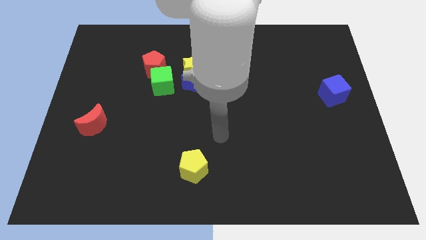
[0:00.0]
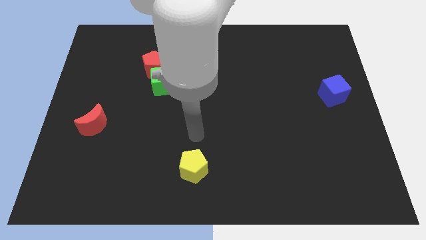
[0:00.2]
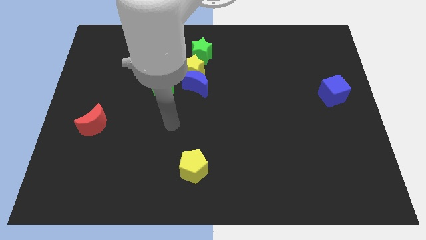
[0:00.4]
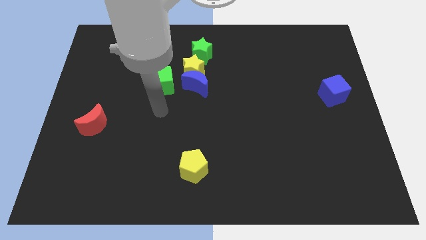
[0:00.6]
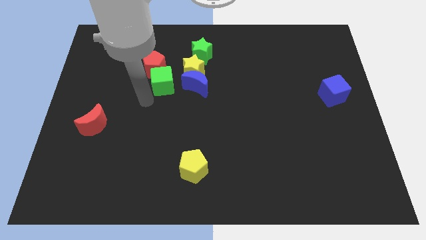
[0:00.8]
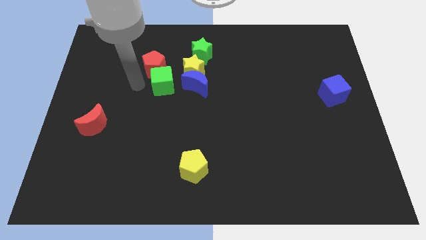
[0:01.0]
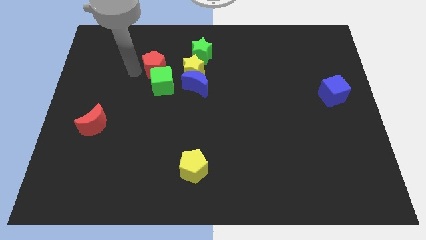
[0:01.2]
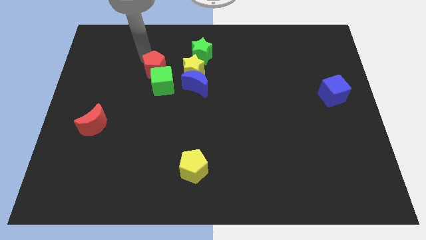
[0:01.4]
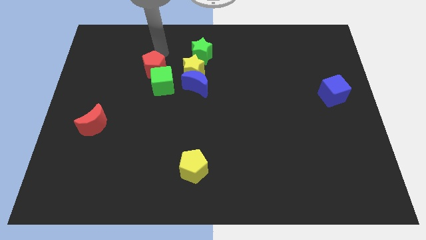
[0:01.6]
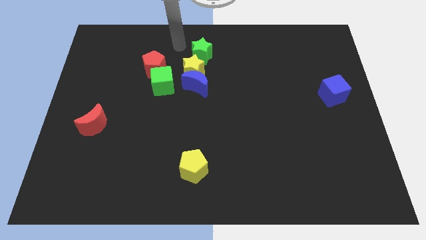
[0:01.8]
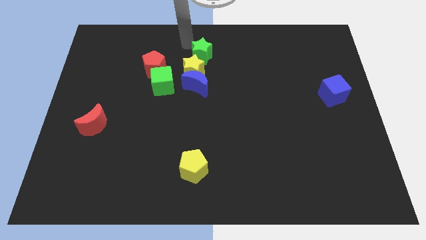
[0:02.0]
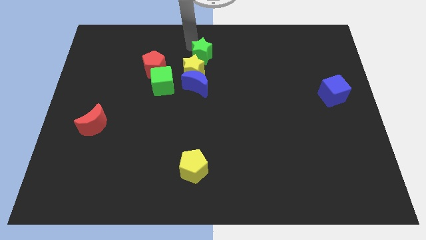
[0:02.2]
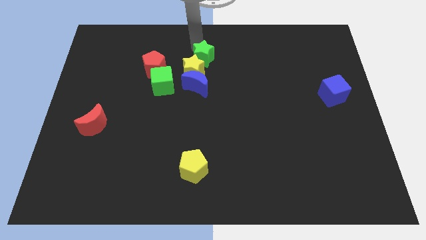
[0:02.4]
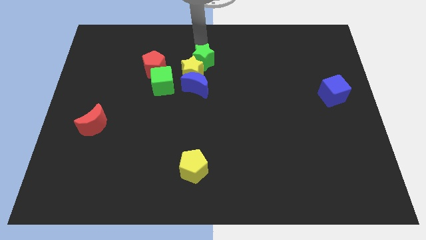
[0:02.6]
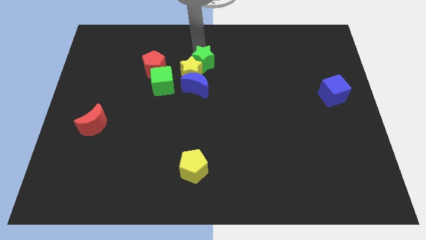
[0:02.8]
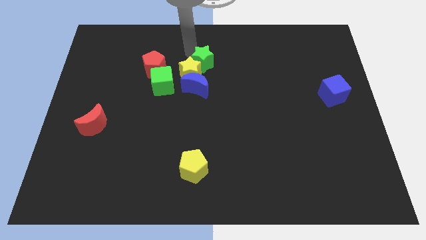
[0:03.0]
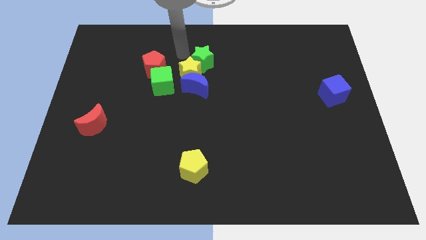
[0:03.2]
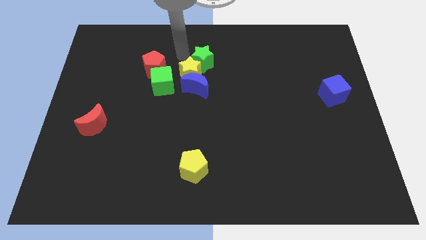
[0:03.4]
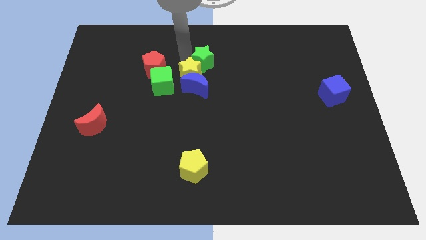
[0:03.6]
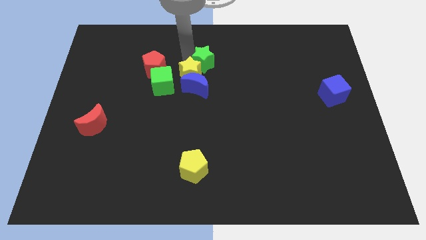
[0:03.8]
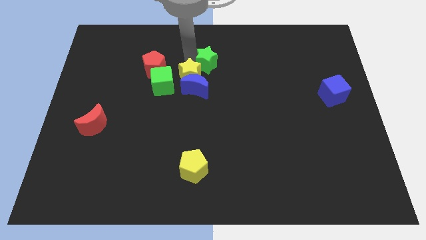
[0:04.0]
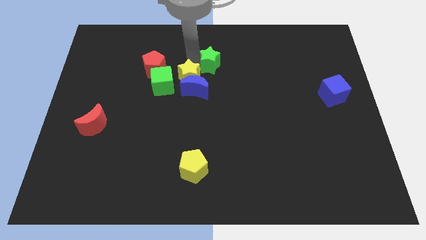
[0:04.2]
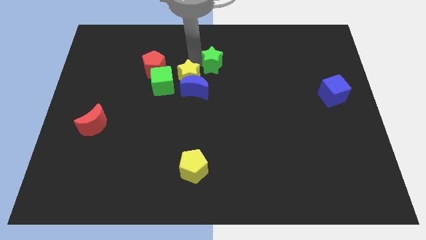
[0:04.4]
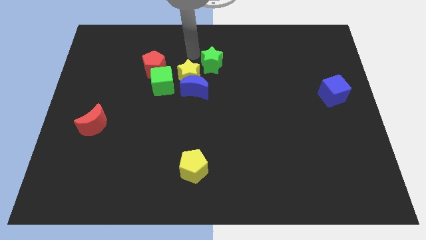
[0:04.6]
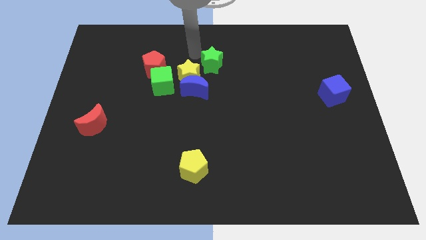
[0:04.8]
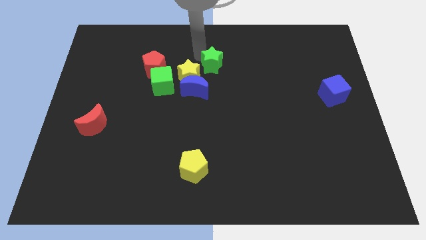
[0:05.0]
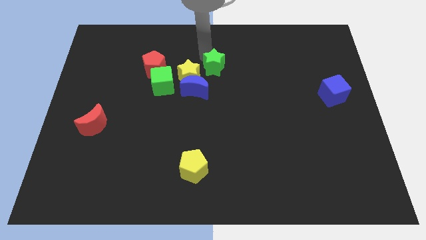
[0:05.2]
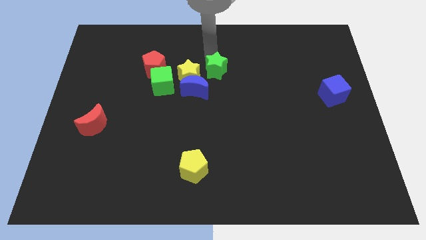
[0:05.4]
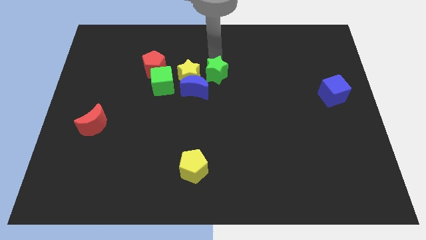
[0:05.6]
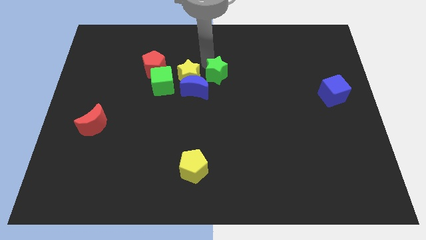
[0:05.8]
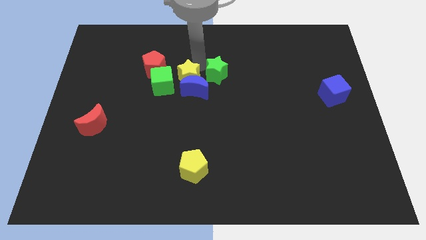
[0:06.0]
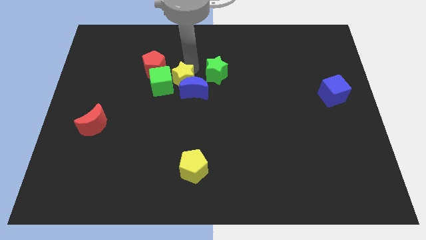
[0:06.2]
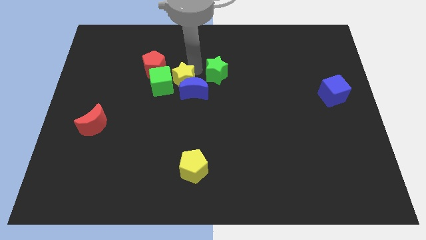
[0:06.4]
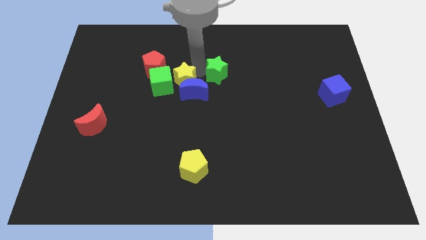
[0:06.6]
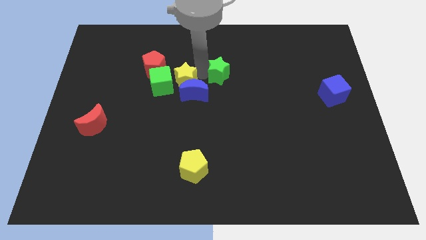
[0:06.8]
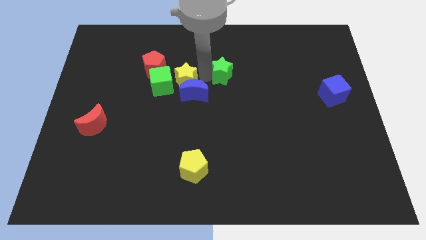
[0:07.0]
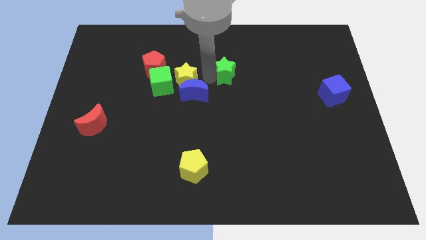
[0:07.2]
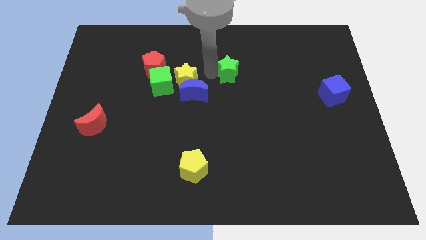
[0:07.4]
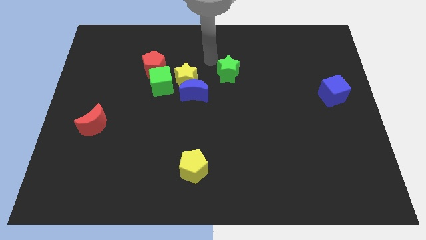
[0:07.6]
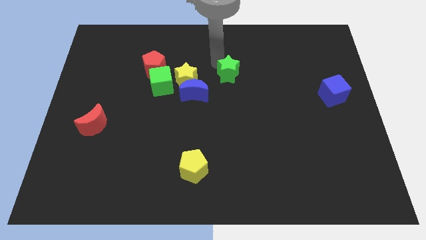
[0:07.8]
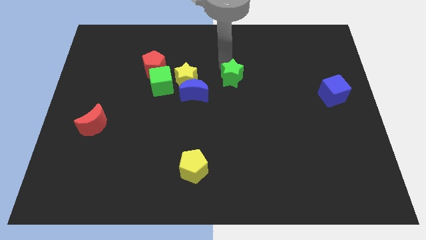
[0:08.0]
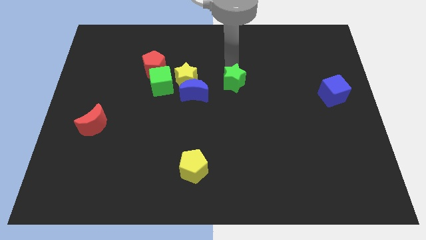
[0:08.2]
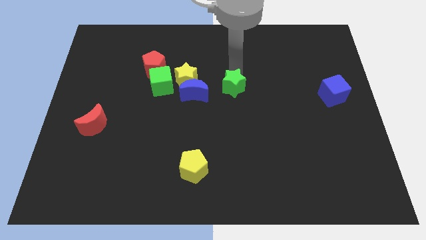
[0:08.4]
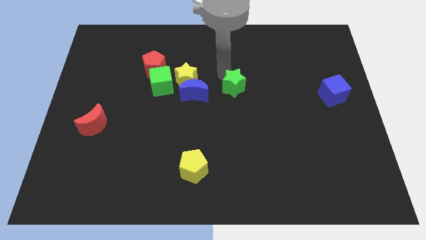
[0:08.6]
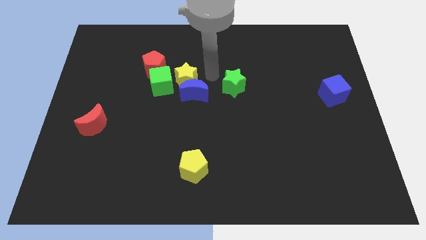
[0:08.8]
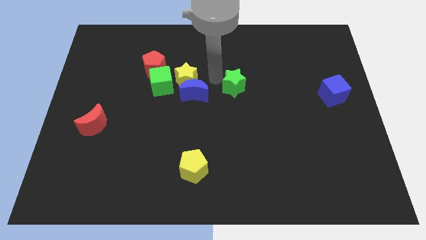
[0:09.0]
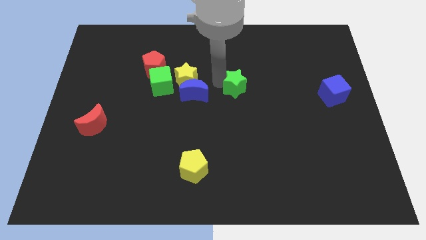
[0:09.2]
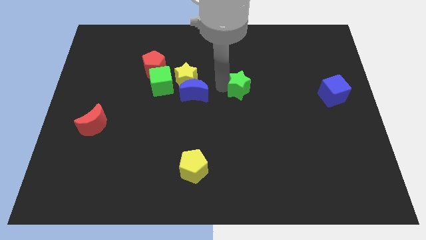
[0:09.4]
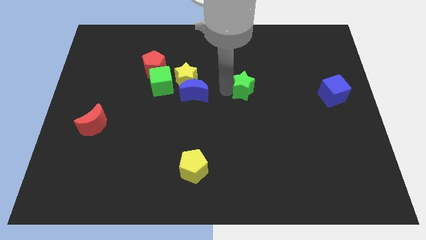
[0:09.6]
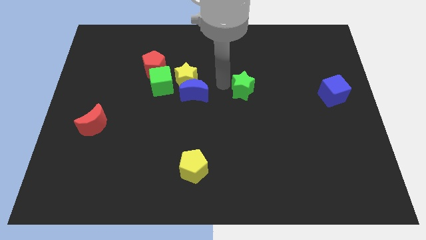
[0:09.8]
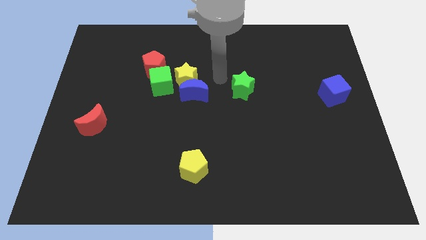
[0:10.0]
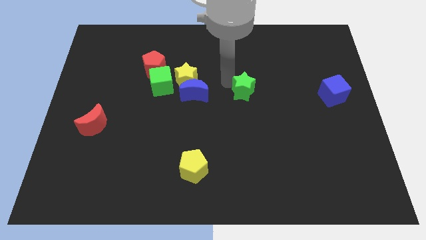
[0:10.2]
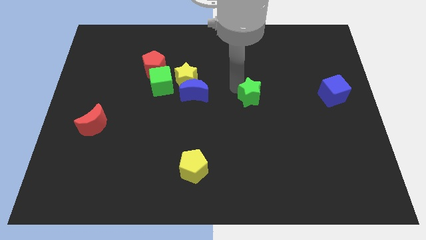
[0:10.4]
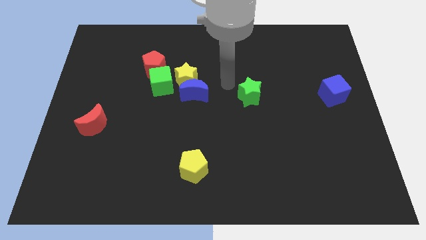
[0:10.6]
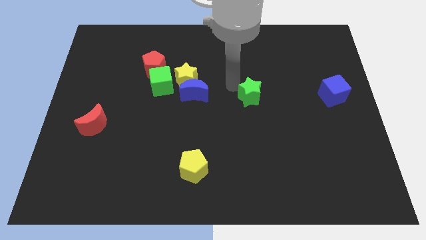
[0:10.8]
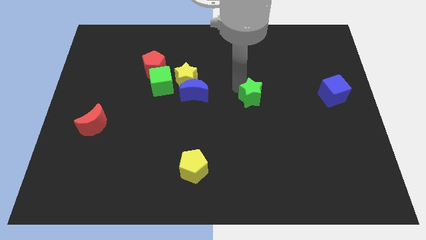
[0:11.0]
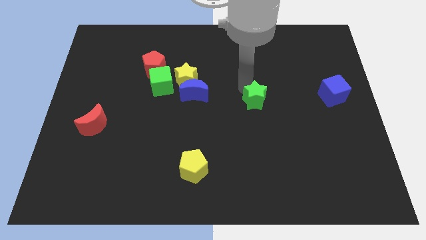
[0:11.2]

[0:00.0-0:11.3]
move the green star downwards and right

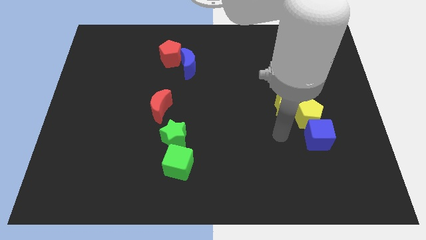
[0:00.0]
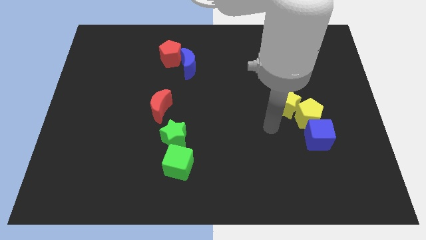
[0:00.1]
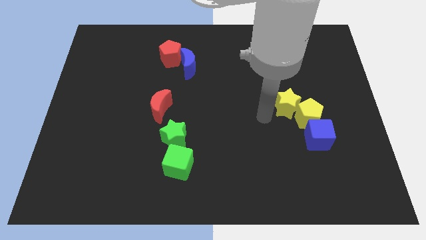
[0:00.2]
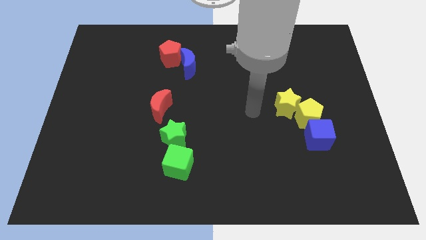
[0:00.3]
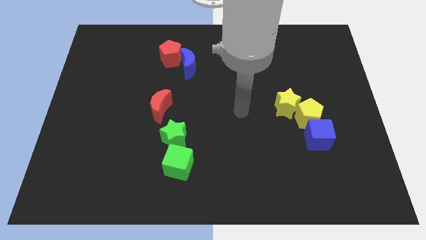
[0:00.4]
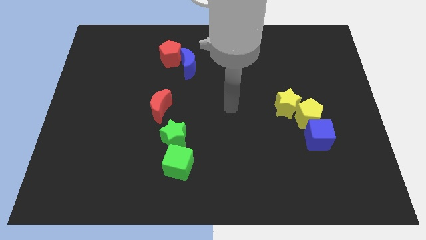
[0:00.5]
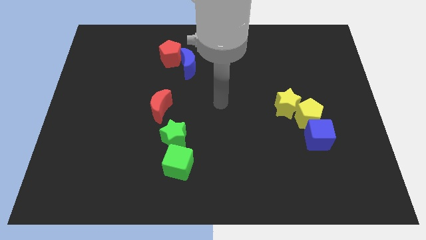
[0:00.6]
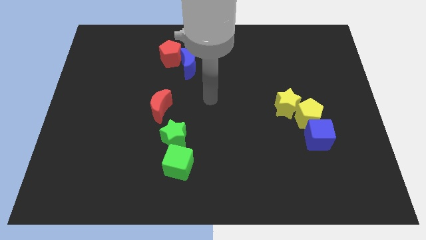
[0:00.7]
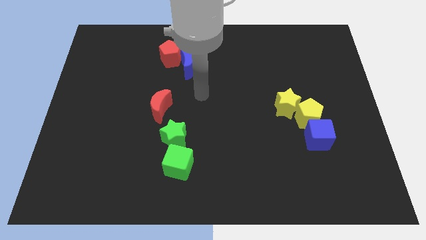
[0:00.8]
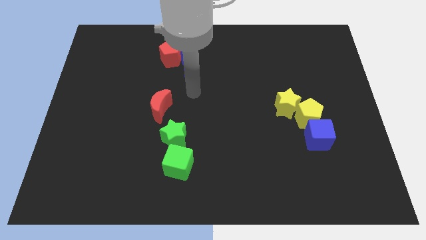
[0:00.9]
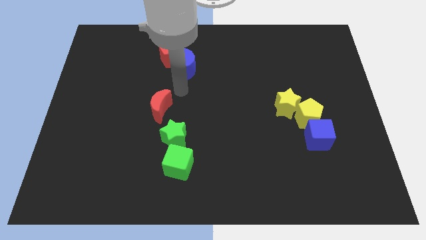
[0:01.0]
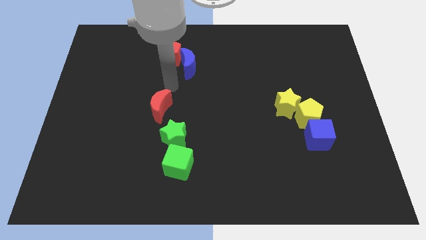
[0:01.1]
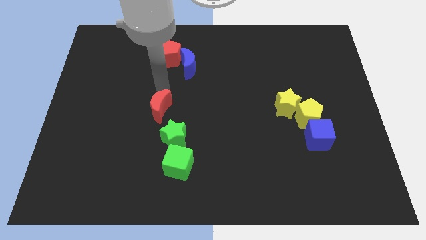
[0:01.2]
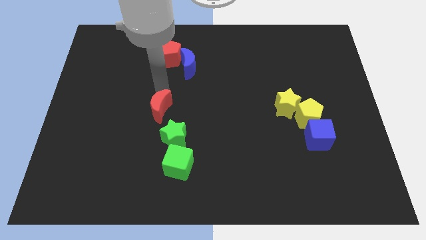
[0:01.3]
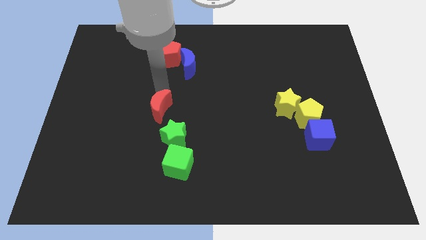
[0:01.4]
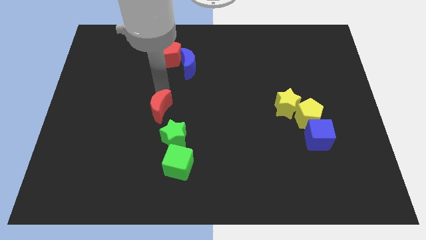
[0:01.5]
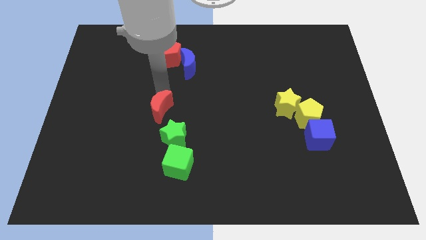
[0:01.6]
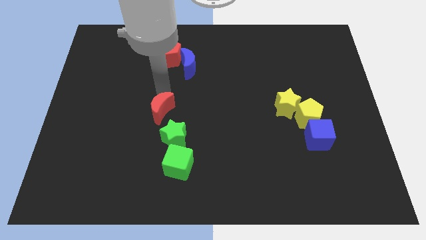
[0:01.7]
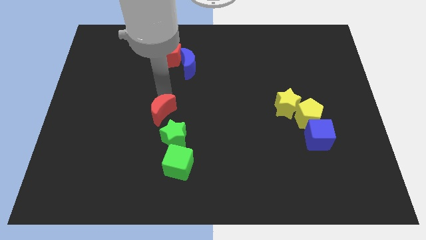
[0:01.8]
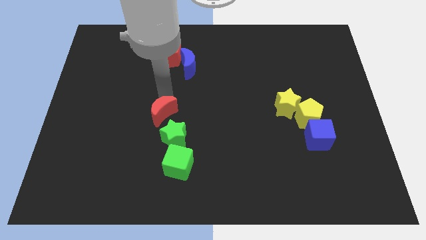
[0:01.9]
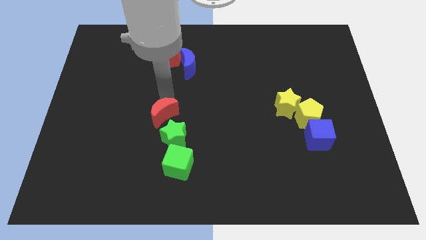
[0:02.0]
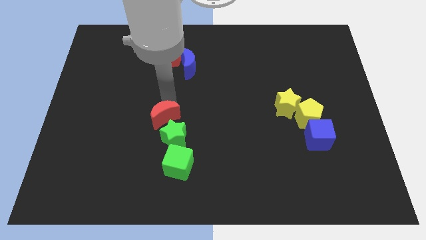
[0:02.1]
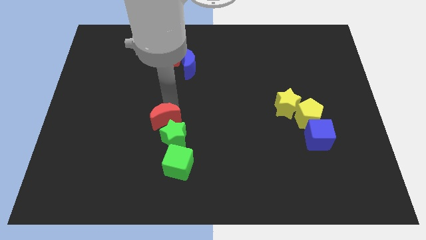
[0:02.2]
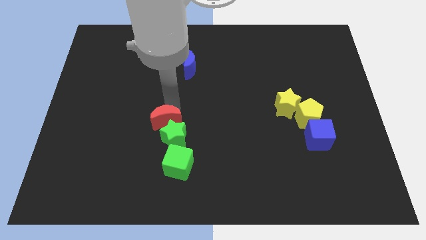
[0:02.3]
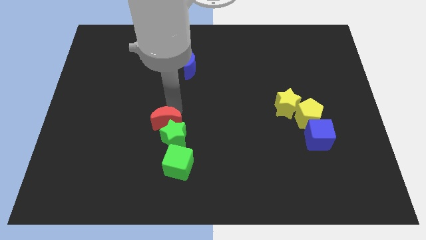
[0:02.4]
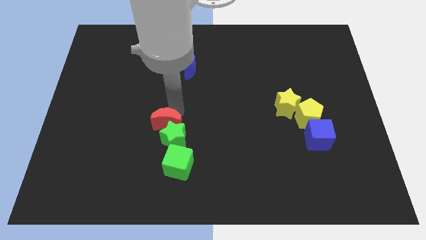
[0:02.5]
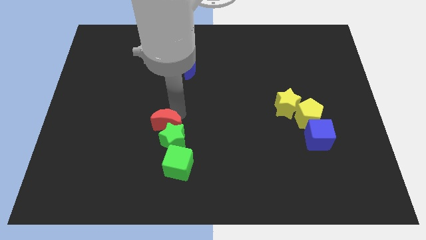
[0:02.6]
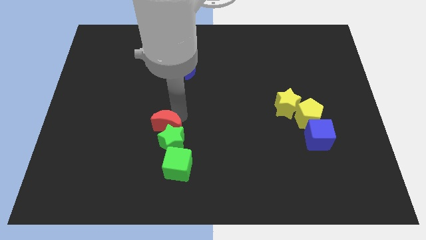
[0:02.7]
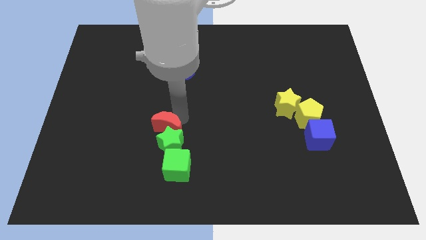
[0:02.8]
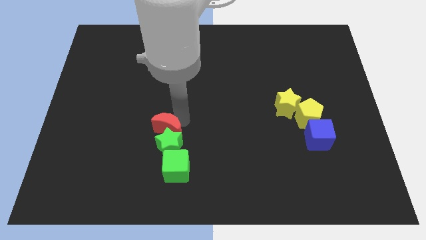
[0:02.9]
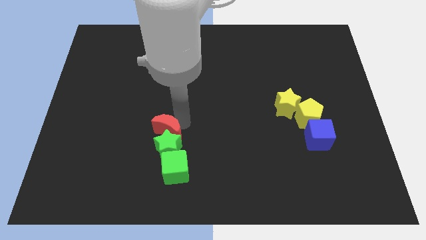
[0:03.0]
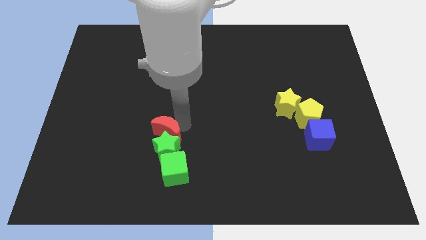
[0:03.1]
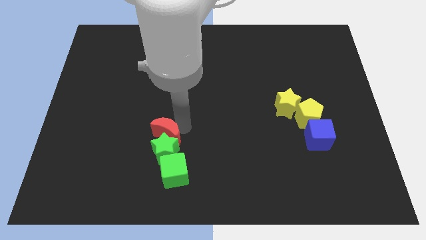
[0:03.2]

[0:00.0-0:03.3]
slightly move the red moon downwards
